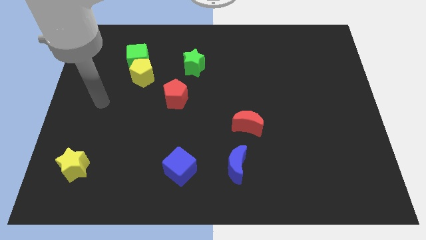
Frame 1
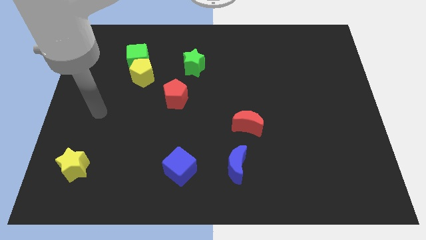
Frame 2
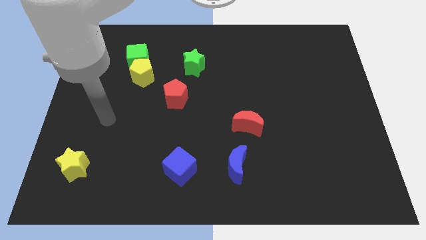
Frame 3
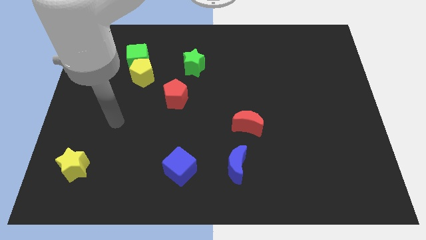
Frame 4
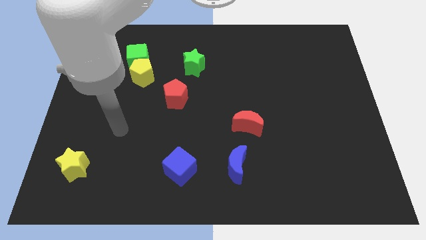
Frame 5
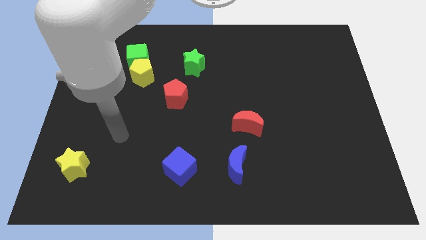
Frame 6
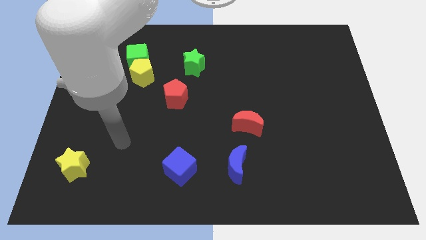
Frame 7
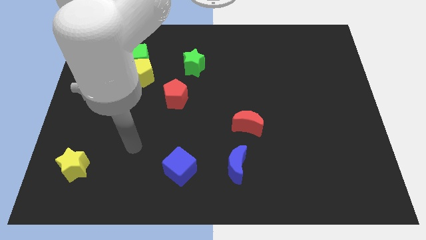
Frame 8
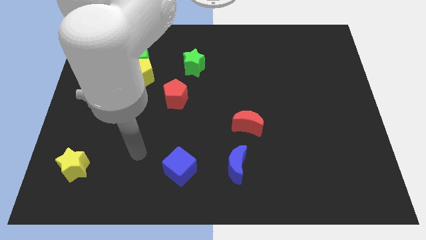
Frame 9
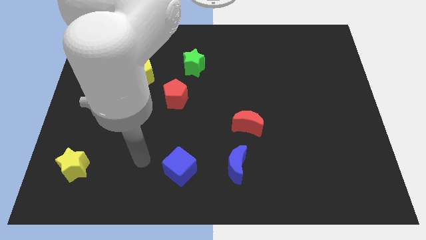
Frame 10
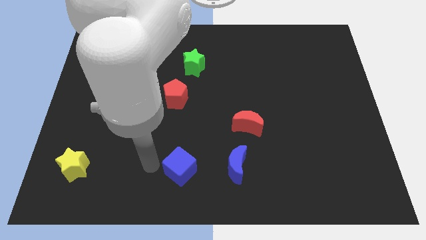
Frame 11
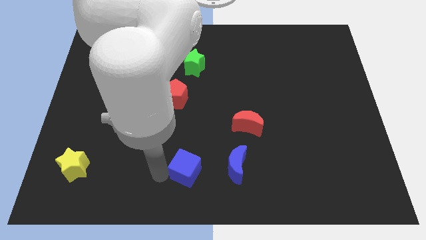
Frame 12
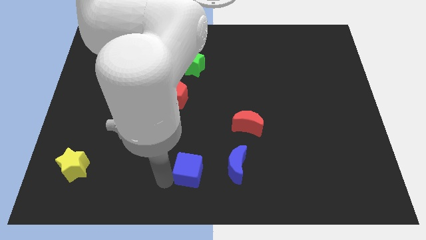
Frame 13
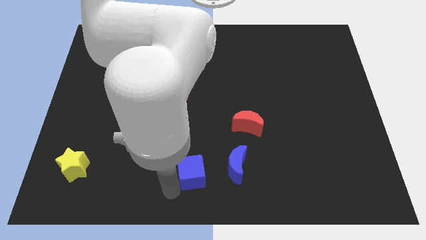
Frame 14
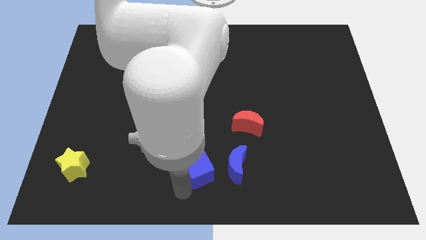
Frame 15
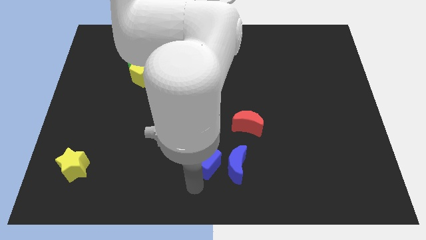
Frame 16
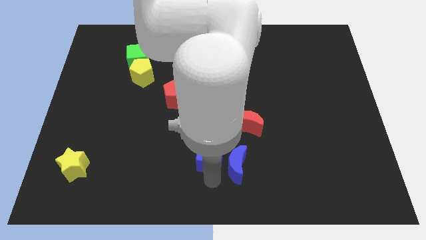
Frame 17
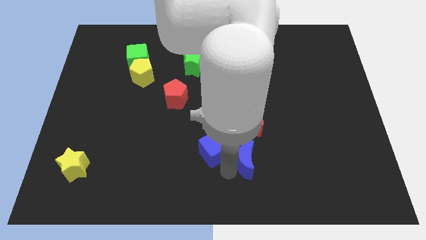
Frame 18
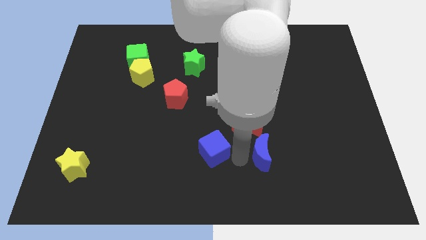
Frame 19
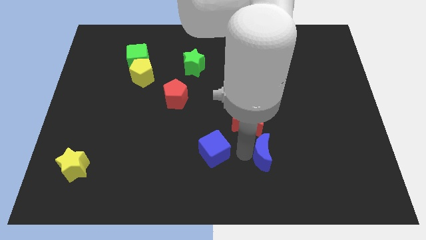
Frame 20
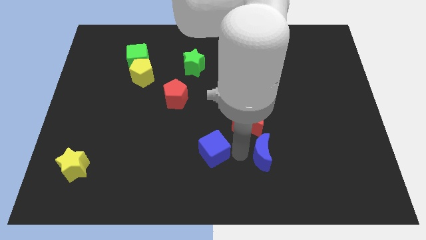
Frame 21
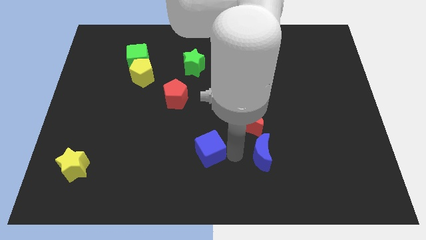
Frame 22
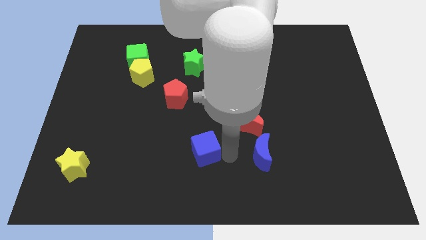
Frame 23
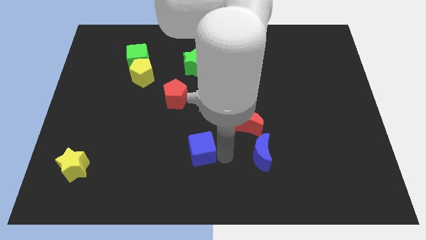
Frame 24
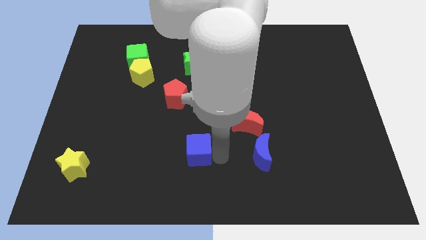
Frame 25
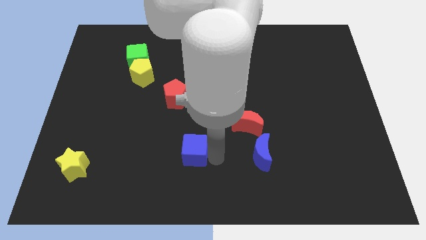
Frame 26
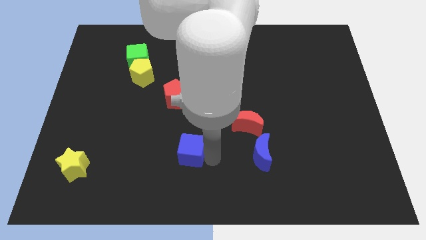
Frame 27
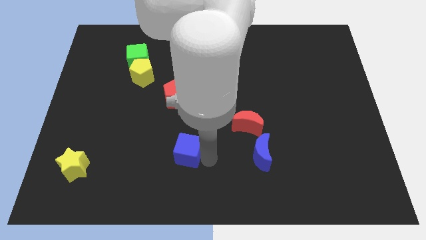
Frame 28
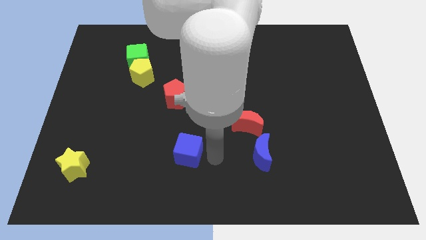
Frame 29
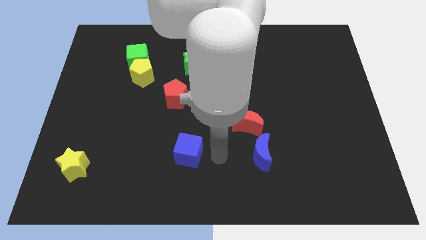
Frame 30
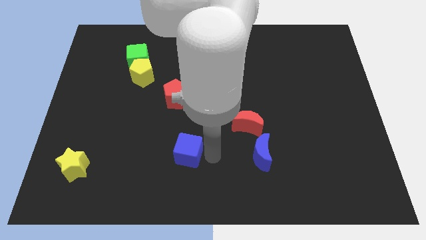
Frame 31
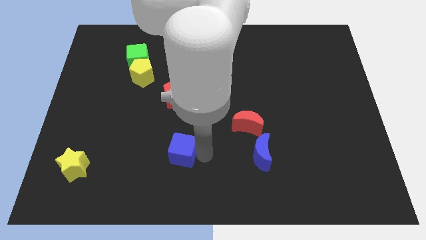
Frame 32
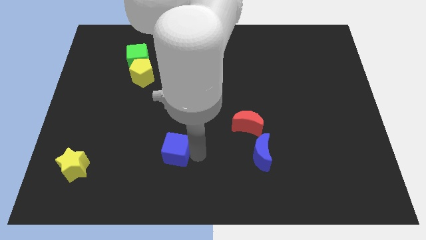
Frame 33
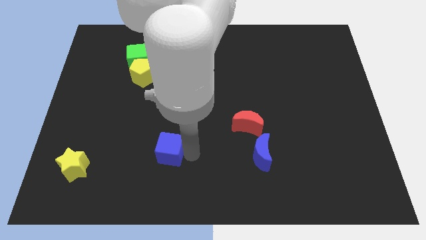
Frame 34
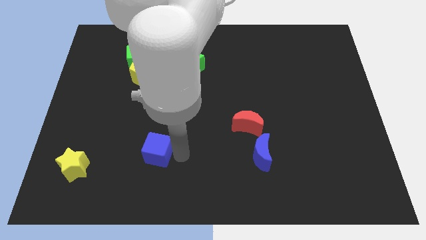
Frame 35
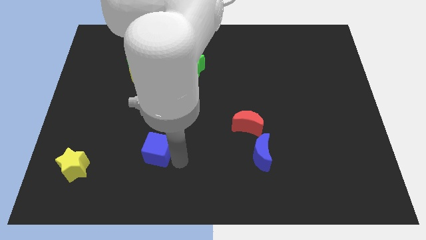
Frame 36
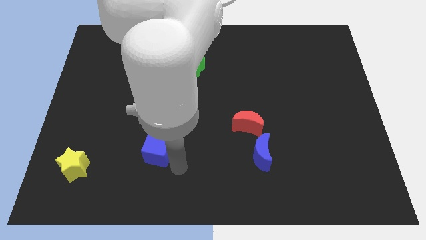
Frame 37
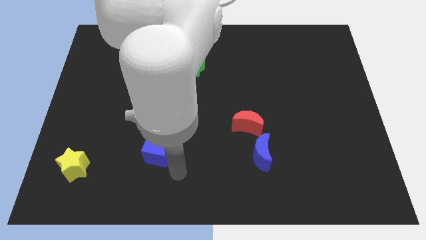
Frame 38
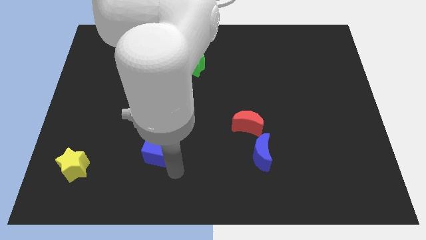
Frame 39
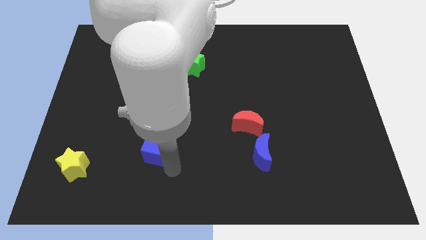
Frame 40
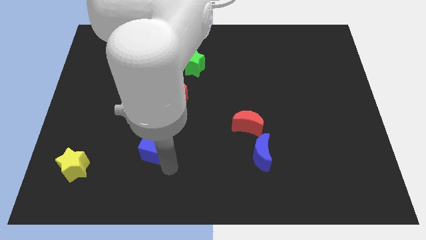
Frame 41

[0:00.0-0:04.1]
slightly slide the blue cube up and left

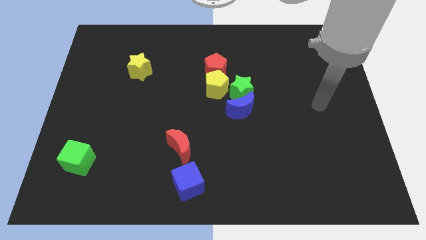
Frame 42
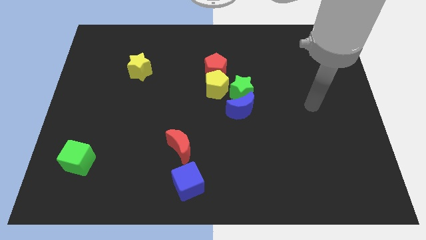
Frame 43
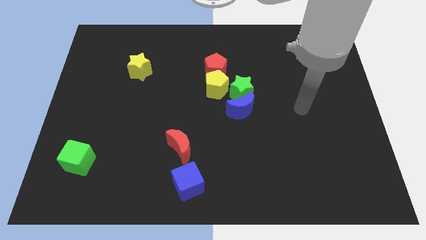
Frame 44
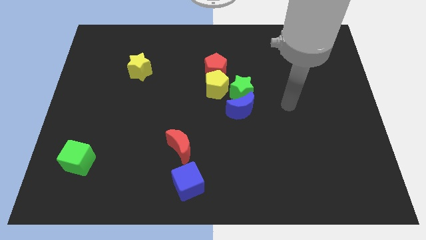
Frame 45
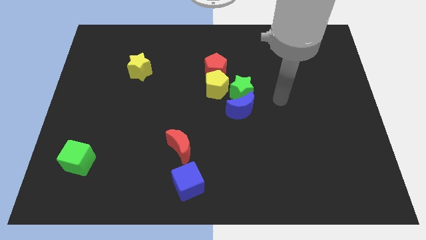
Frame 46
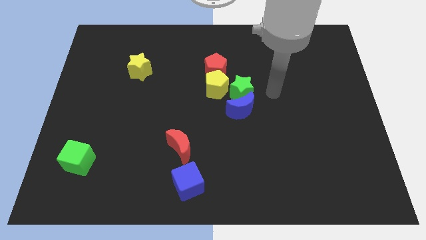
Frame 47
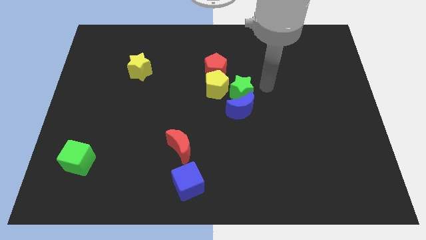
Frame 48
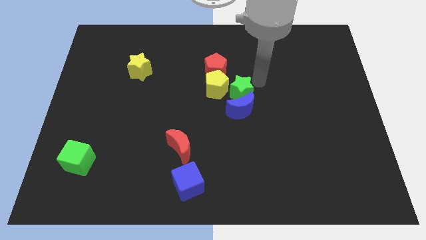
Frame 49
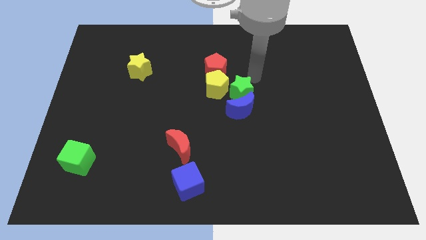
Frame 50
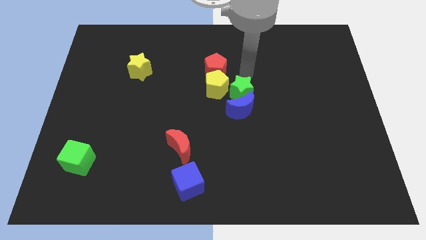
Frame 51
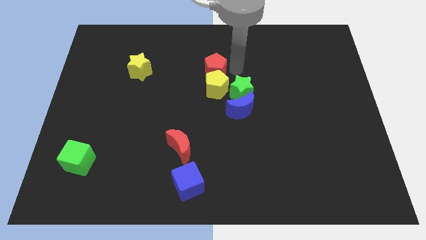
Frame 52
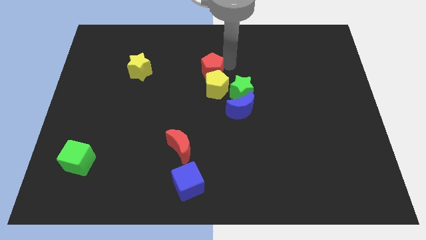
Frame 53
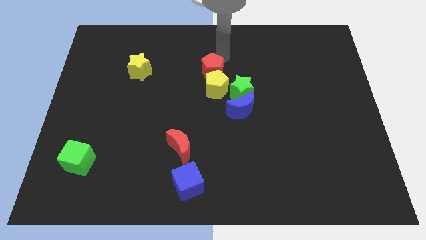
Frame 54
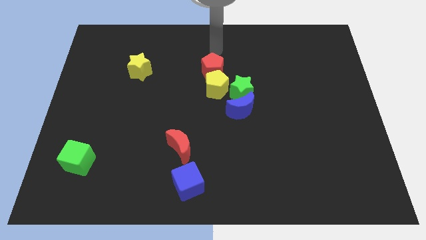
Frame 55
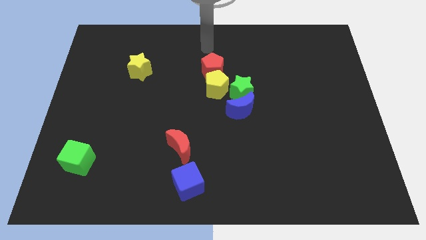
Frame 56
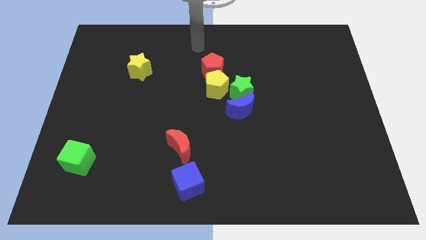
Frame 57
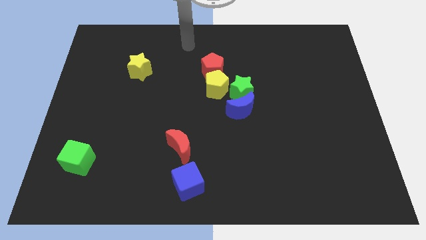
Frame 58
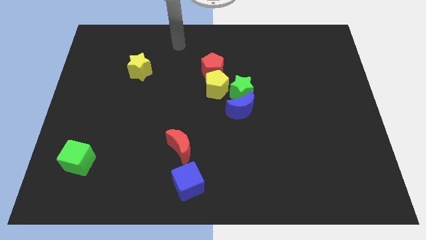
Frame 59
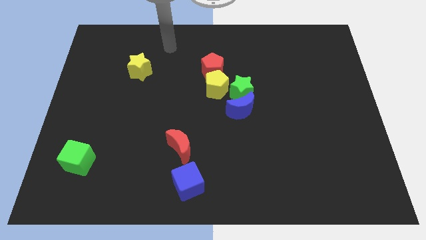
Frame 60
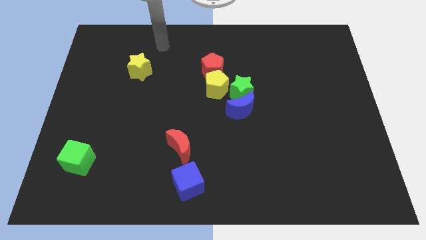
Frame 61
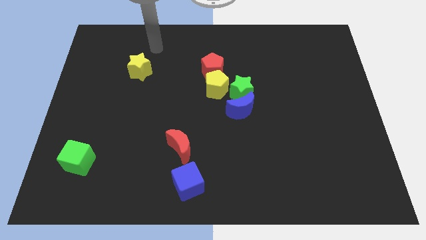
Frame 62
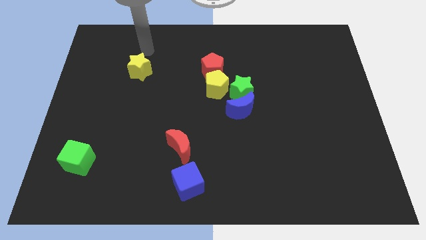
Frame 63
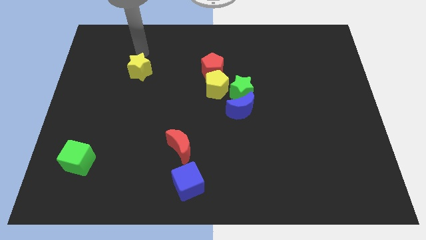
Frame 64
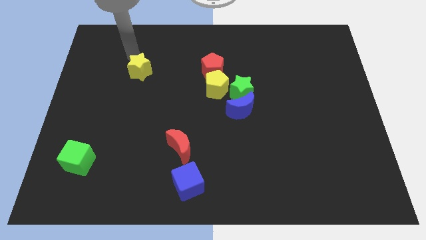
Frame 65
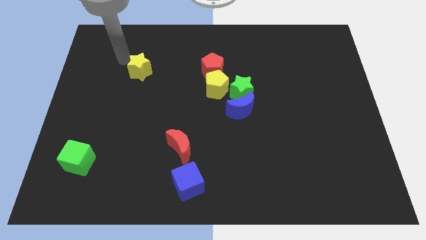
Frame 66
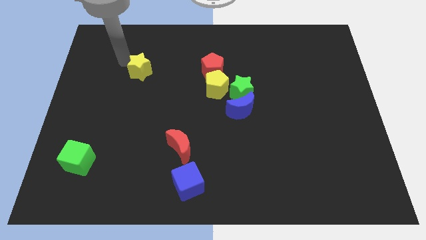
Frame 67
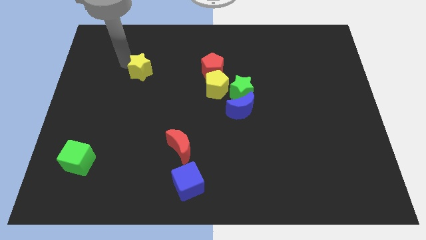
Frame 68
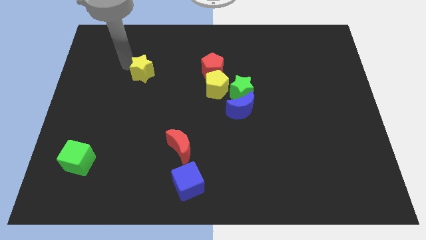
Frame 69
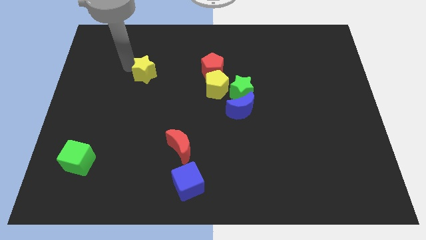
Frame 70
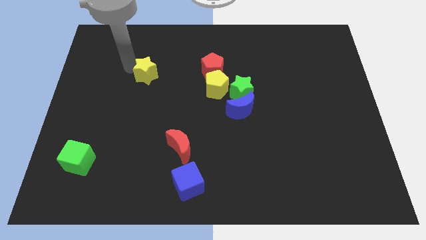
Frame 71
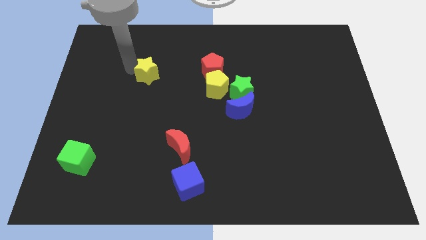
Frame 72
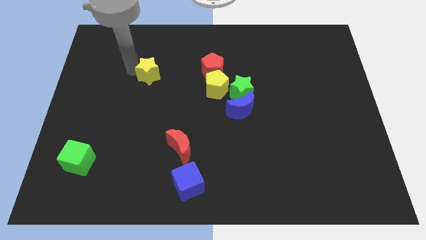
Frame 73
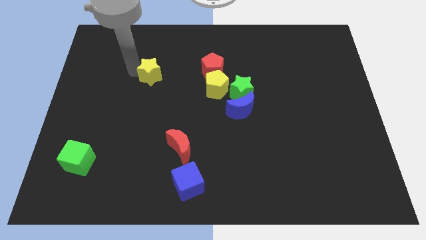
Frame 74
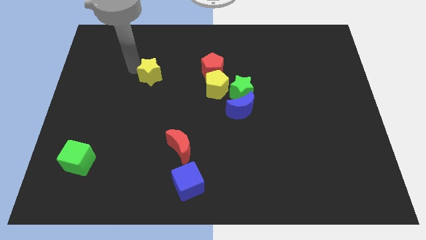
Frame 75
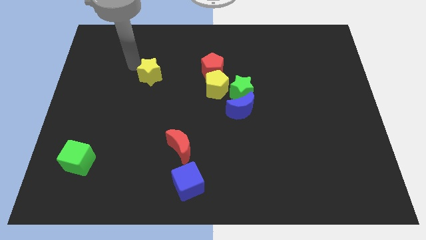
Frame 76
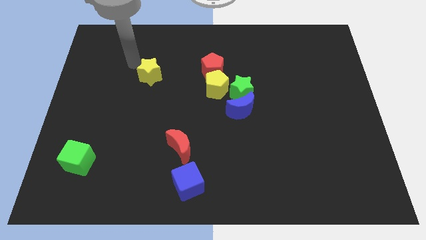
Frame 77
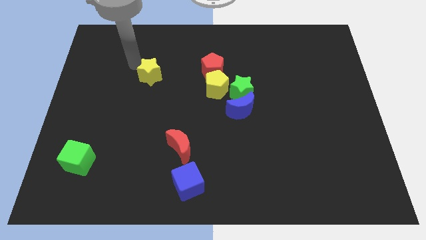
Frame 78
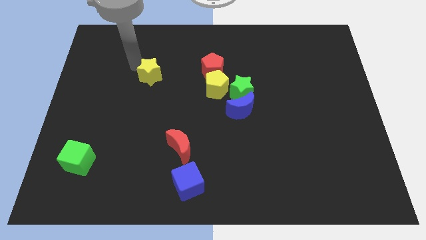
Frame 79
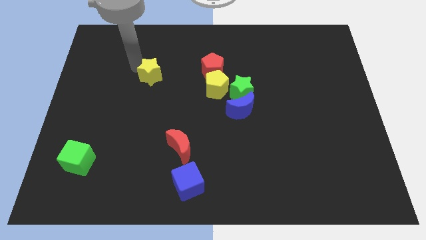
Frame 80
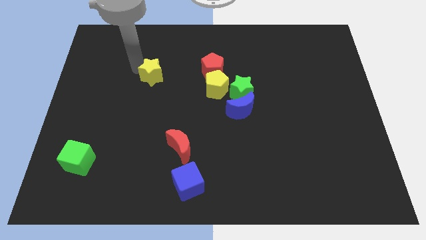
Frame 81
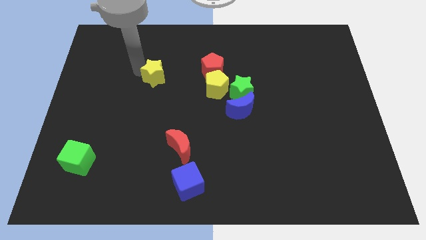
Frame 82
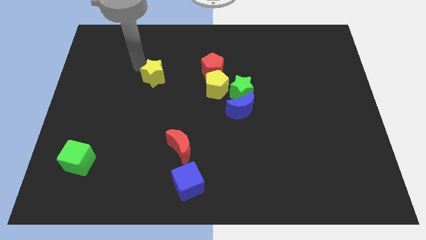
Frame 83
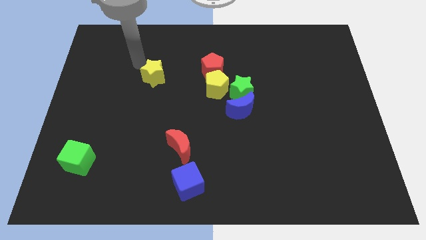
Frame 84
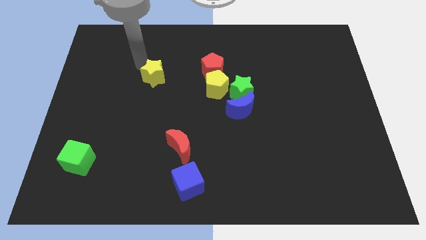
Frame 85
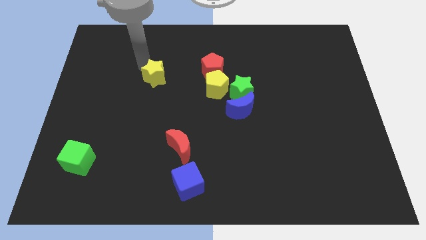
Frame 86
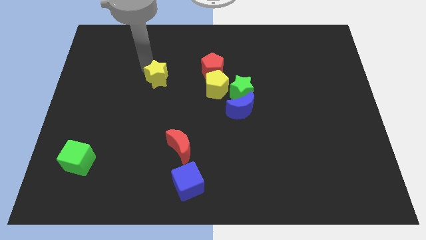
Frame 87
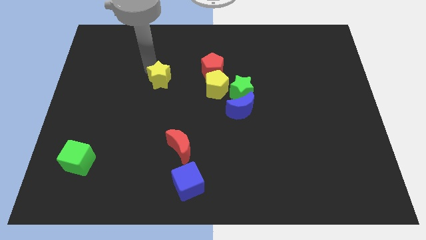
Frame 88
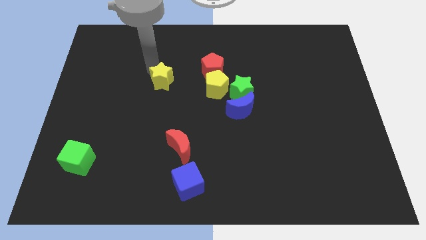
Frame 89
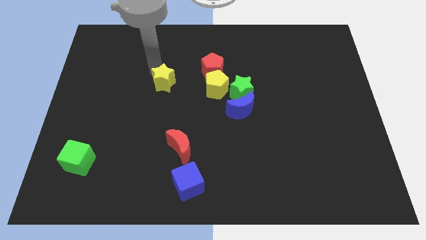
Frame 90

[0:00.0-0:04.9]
slightly slide the yellow star down and right
